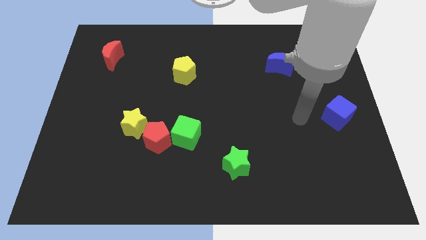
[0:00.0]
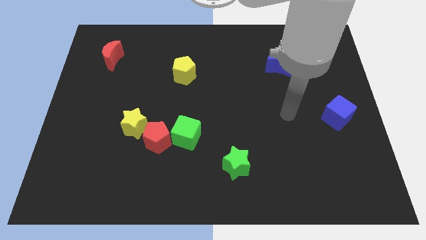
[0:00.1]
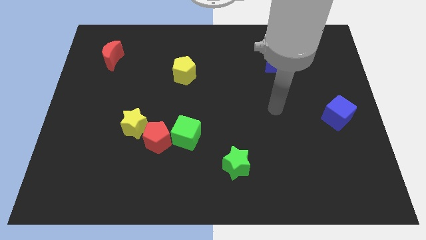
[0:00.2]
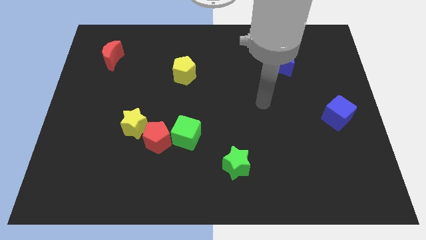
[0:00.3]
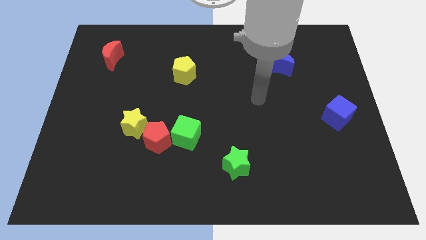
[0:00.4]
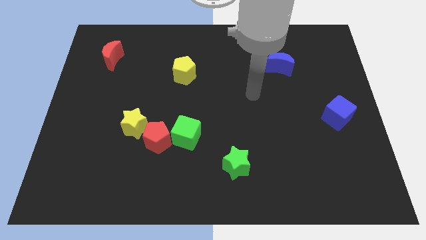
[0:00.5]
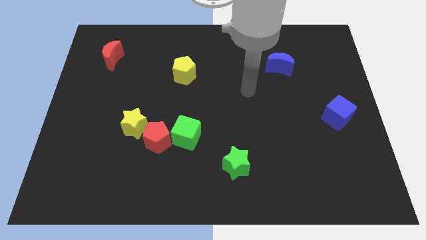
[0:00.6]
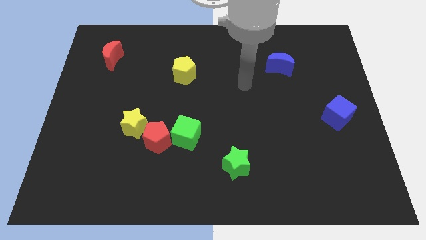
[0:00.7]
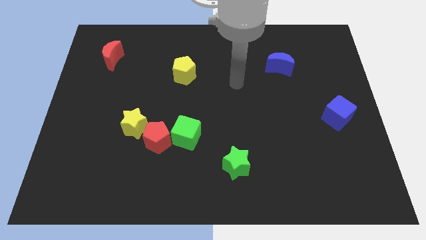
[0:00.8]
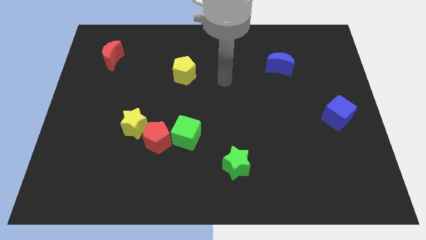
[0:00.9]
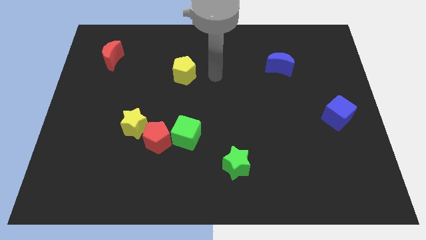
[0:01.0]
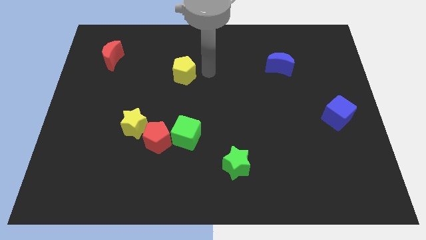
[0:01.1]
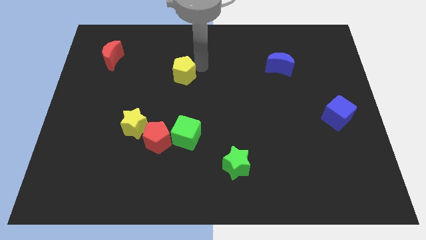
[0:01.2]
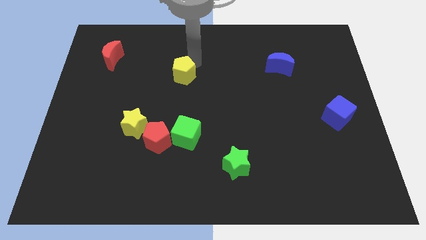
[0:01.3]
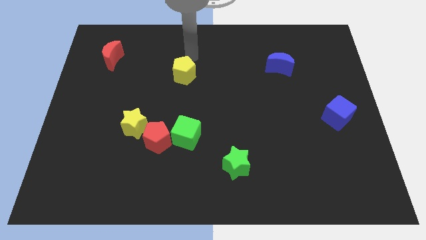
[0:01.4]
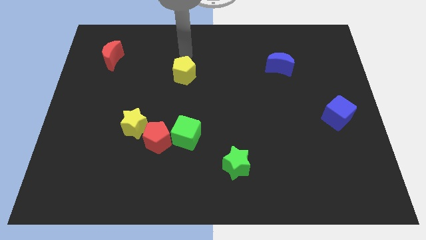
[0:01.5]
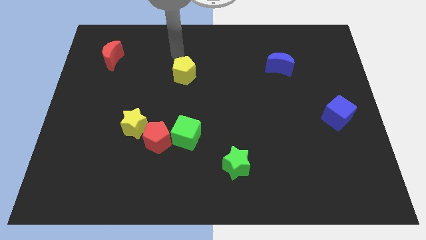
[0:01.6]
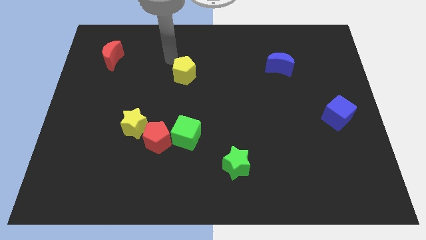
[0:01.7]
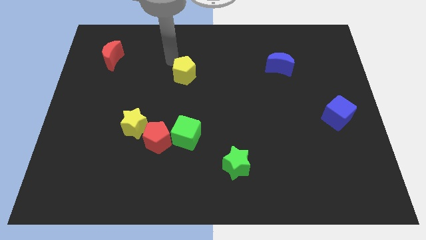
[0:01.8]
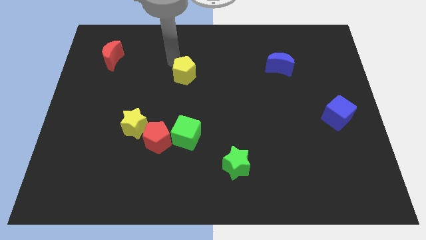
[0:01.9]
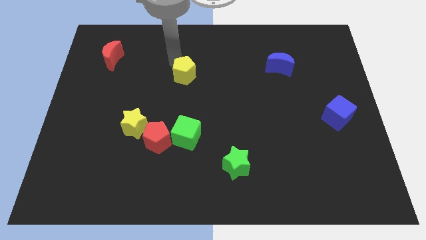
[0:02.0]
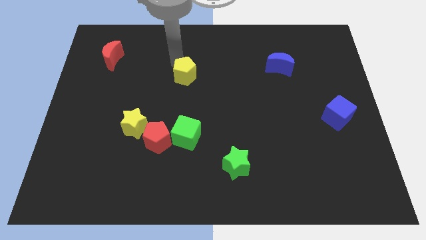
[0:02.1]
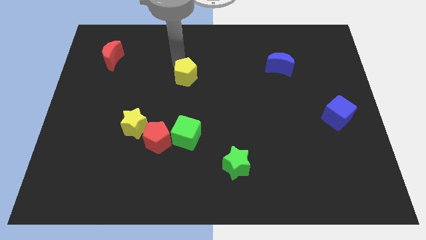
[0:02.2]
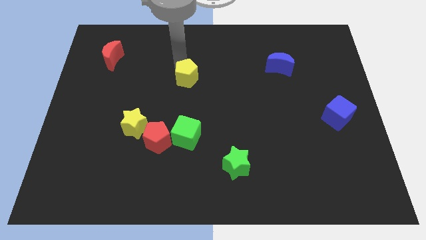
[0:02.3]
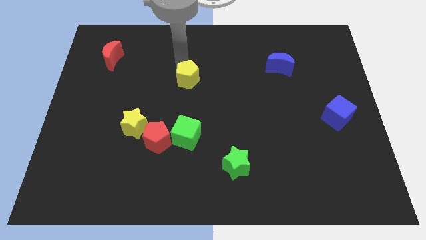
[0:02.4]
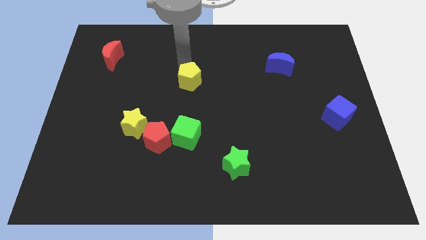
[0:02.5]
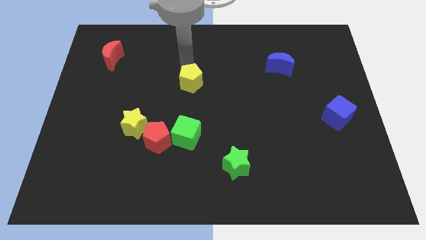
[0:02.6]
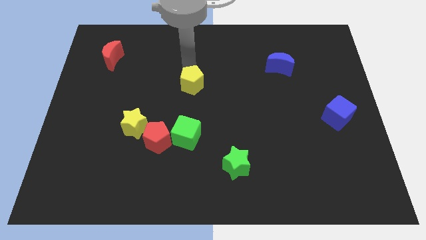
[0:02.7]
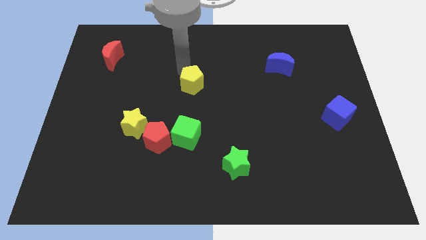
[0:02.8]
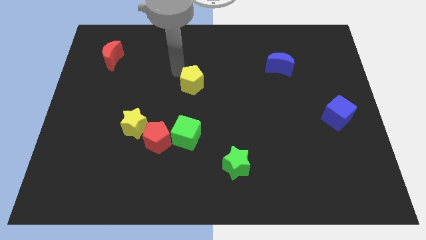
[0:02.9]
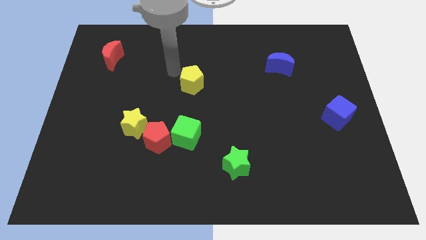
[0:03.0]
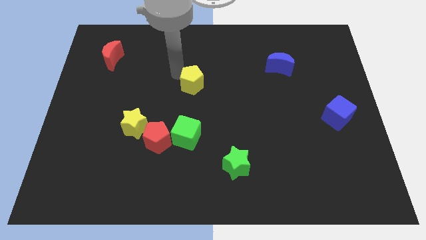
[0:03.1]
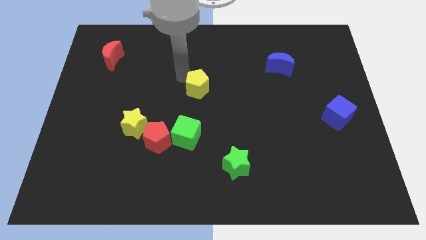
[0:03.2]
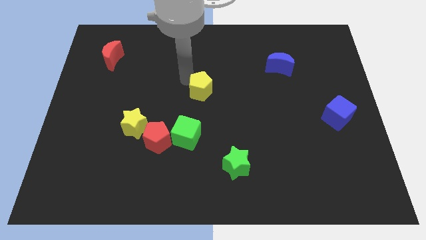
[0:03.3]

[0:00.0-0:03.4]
slightly push the yellow pentagon diagonally downwards and to the right

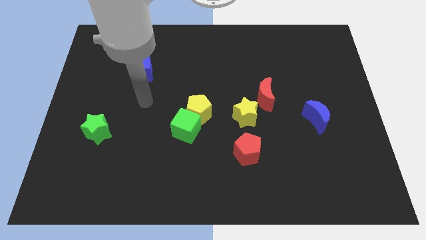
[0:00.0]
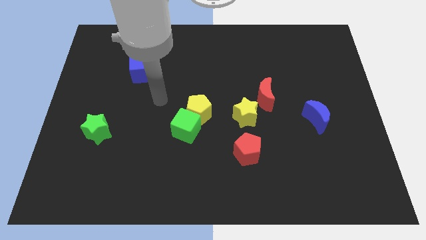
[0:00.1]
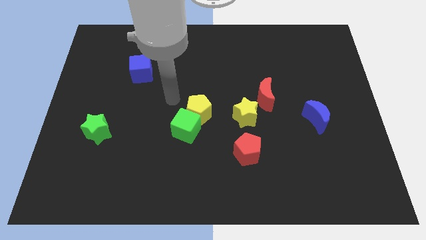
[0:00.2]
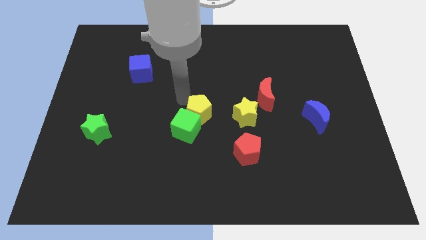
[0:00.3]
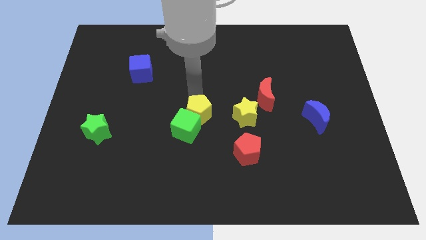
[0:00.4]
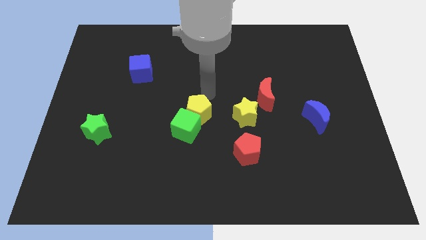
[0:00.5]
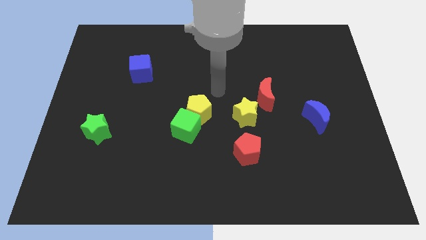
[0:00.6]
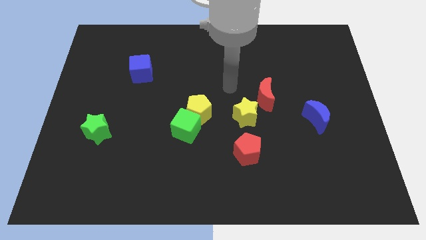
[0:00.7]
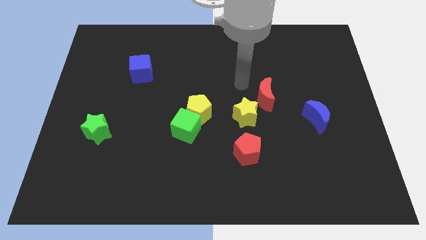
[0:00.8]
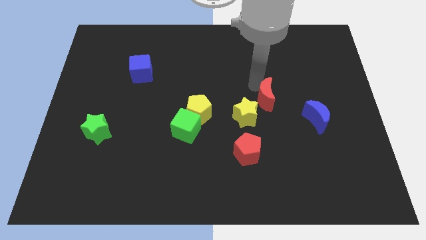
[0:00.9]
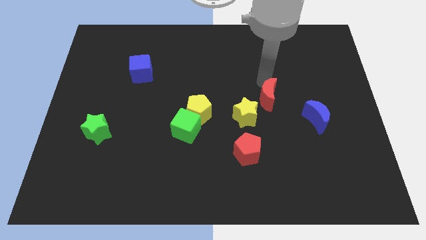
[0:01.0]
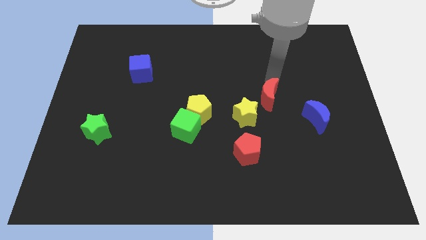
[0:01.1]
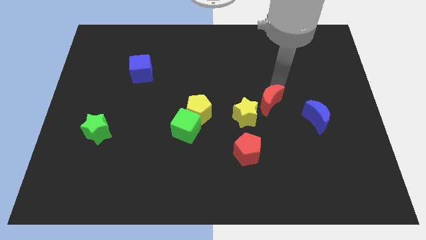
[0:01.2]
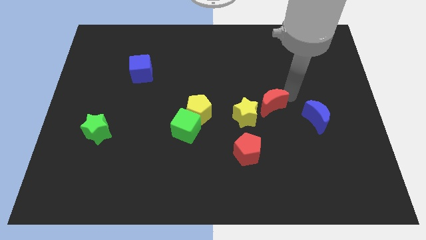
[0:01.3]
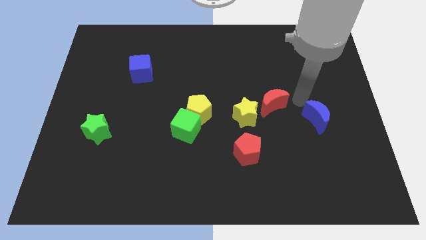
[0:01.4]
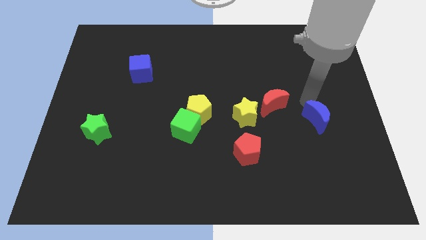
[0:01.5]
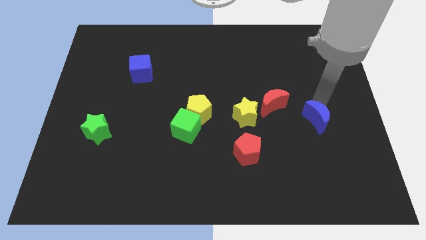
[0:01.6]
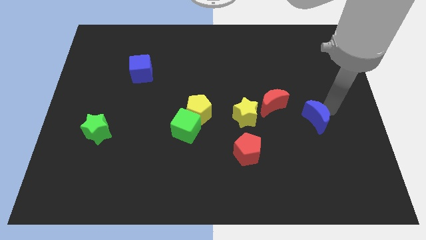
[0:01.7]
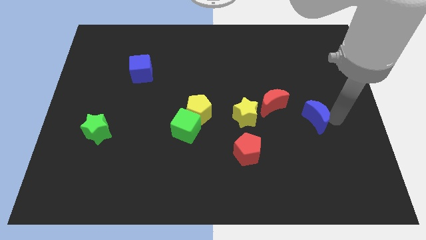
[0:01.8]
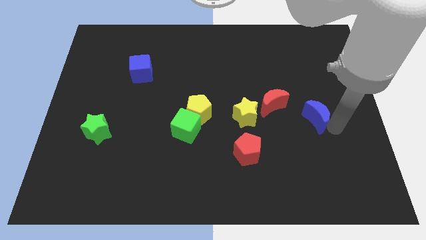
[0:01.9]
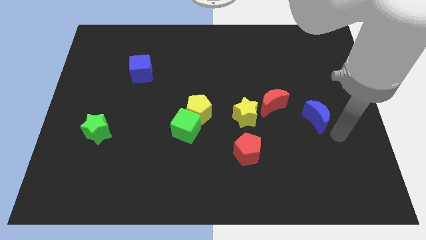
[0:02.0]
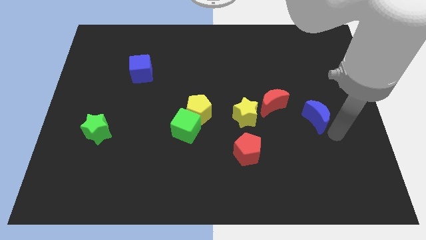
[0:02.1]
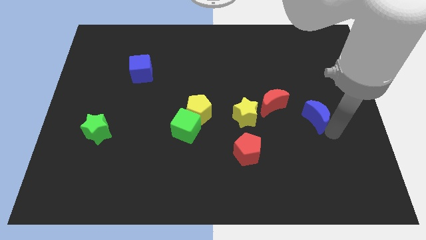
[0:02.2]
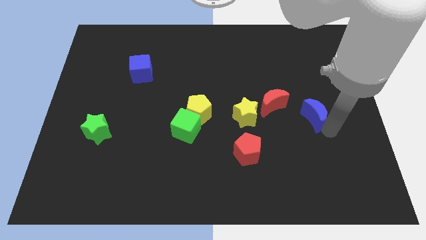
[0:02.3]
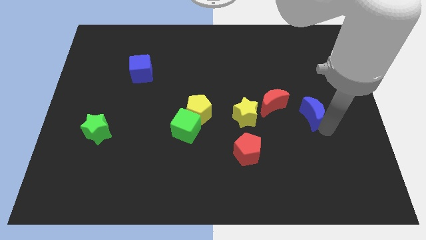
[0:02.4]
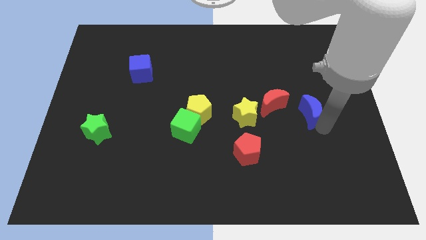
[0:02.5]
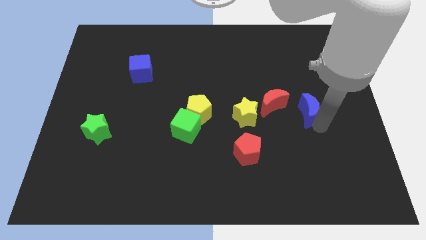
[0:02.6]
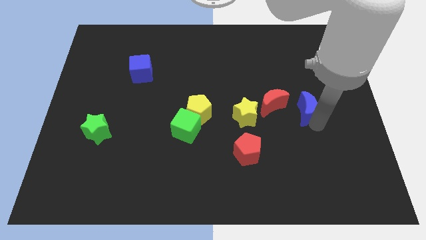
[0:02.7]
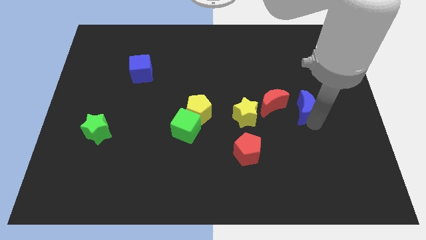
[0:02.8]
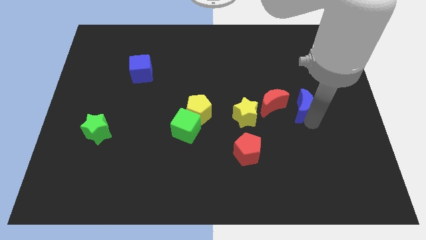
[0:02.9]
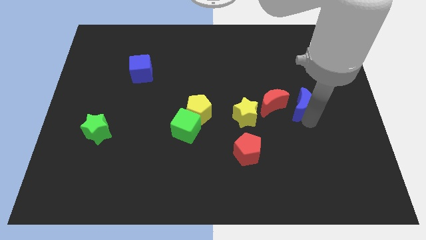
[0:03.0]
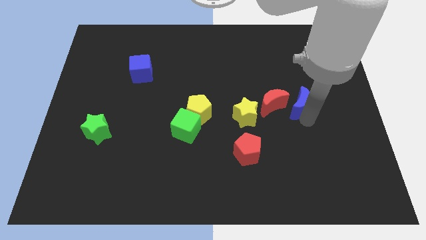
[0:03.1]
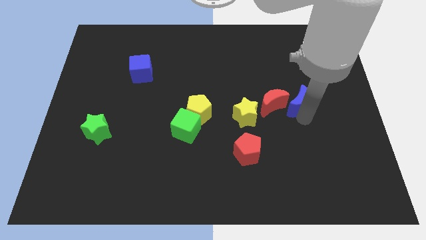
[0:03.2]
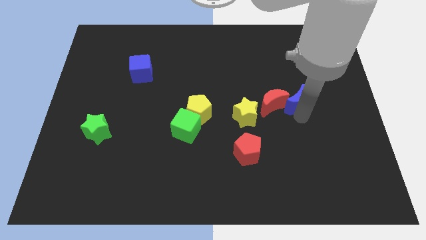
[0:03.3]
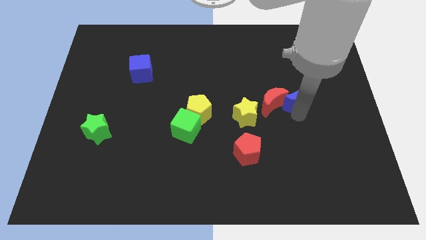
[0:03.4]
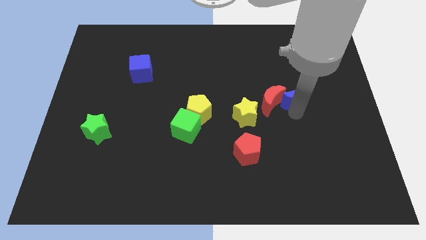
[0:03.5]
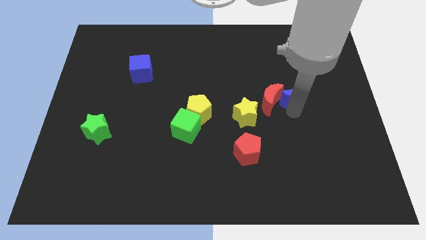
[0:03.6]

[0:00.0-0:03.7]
slightly slide the blue moon upwards and to the left diagonally

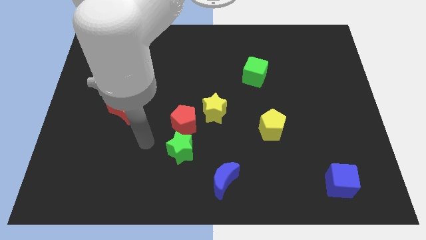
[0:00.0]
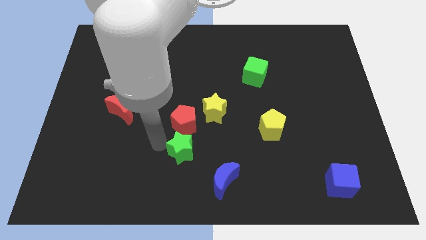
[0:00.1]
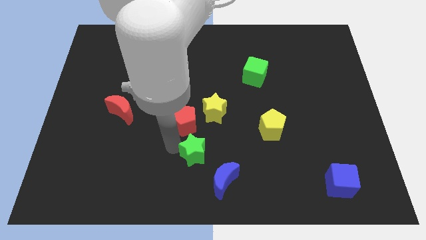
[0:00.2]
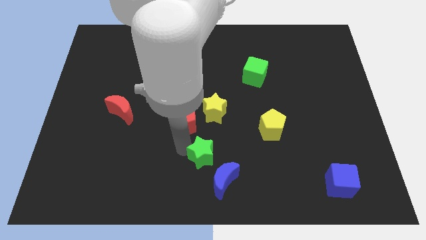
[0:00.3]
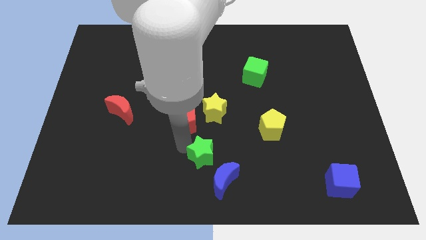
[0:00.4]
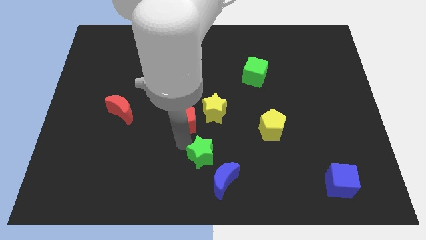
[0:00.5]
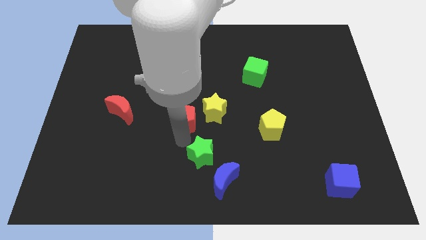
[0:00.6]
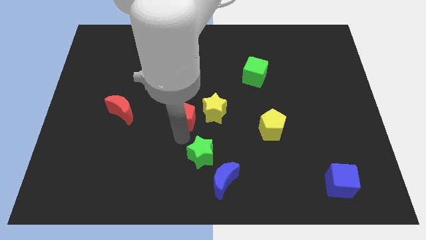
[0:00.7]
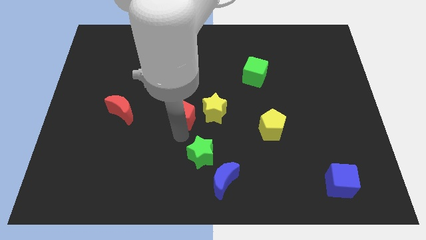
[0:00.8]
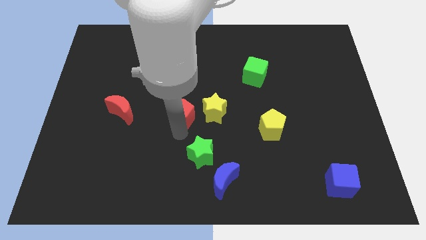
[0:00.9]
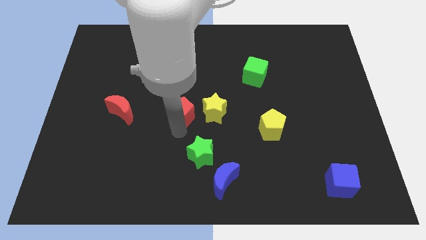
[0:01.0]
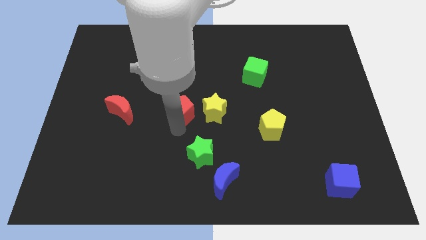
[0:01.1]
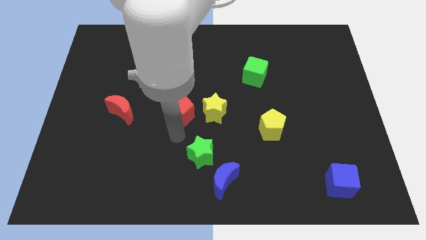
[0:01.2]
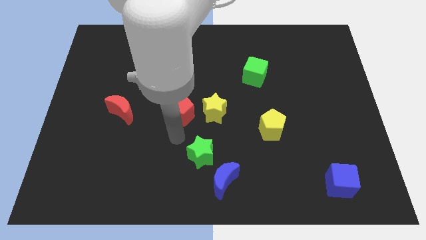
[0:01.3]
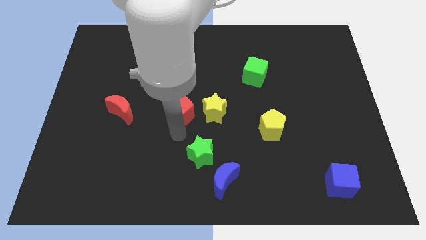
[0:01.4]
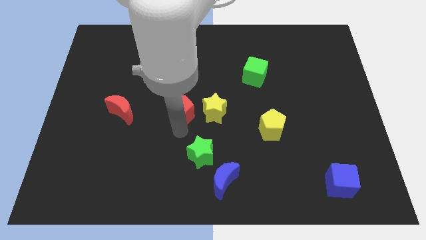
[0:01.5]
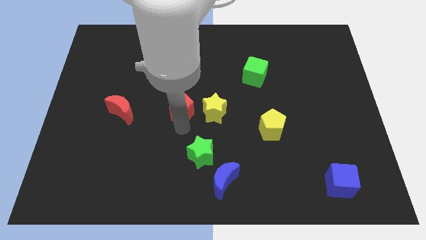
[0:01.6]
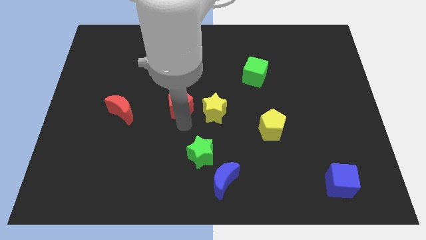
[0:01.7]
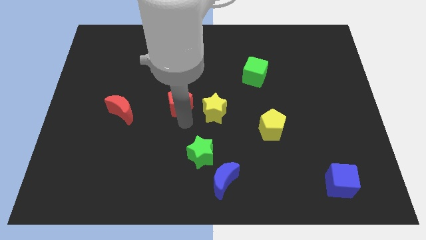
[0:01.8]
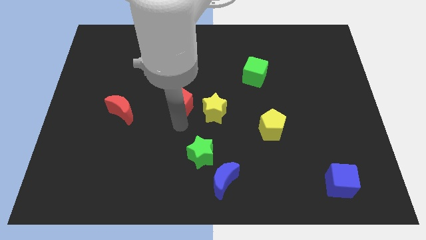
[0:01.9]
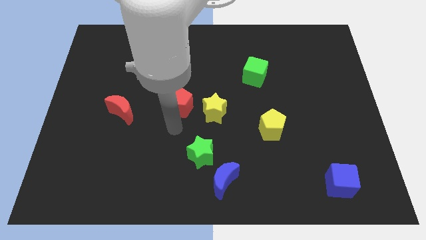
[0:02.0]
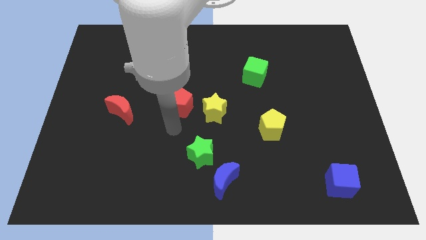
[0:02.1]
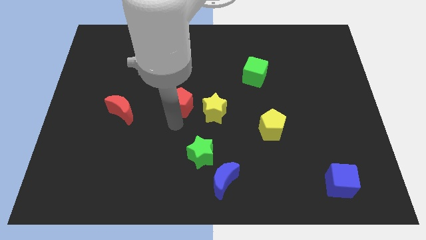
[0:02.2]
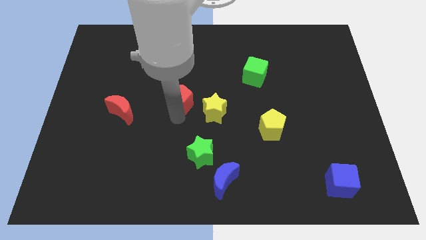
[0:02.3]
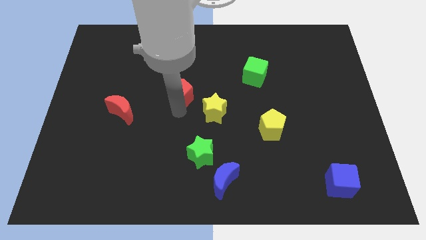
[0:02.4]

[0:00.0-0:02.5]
move the red pentagon up a little bit
